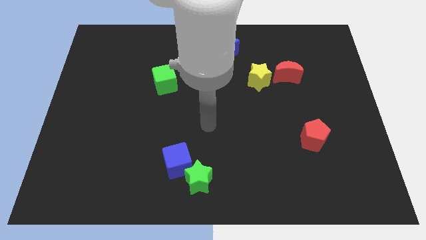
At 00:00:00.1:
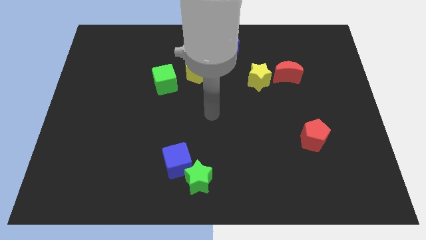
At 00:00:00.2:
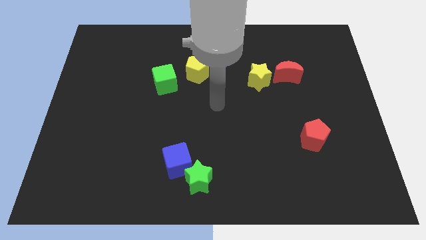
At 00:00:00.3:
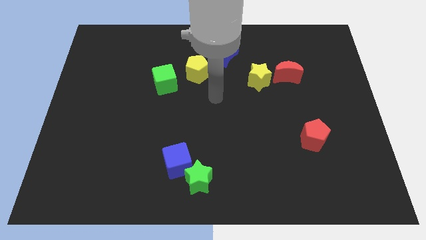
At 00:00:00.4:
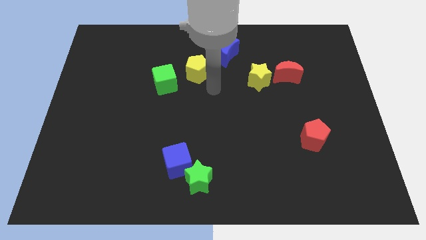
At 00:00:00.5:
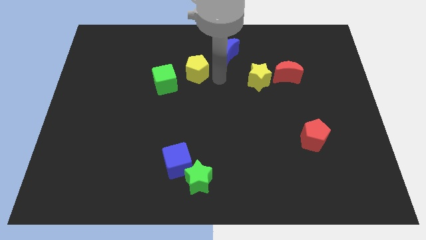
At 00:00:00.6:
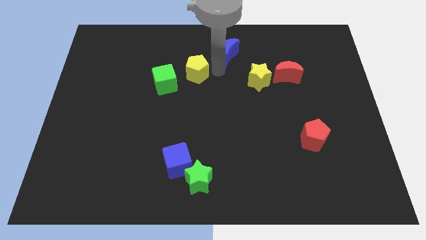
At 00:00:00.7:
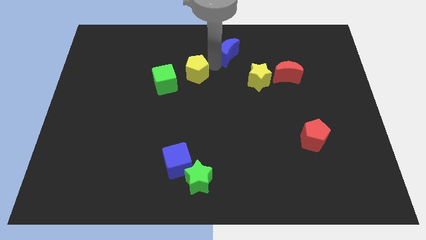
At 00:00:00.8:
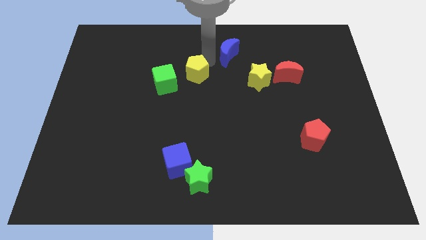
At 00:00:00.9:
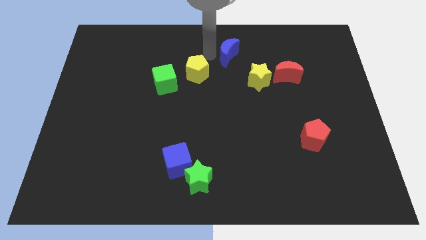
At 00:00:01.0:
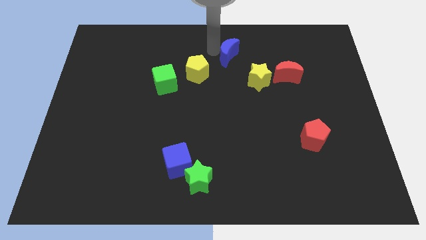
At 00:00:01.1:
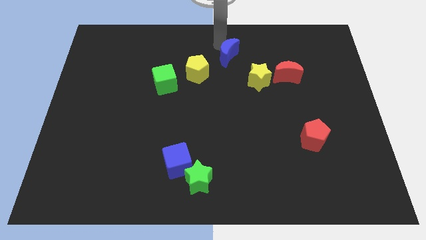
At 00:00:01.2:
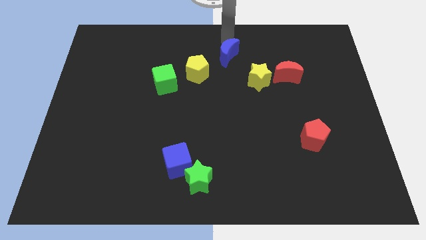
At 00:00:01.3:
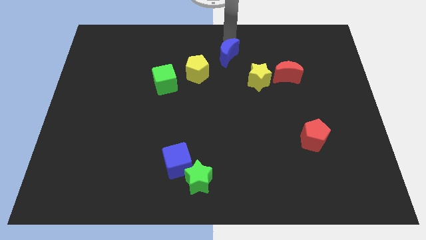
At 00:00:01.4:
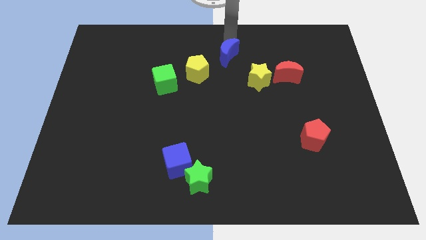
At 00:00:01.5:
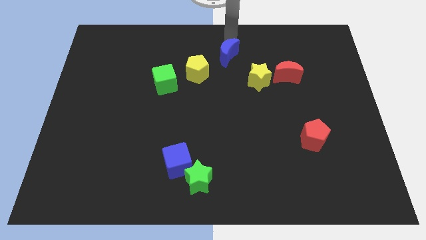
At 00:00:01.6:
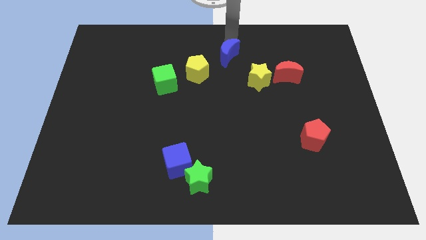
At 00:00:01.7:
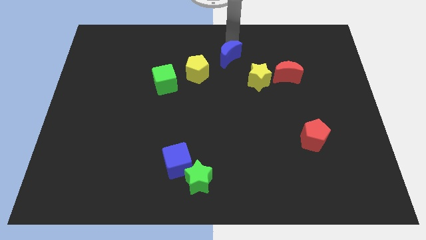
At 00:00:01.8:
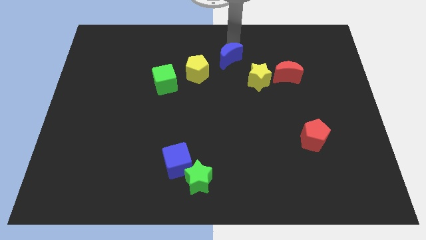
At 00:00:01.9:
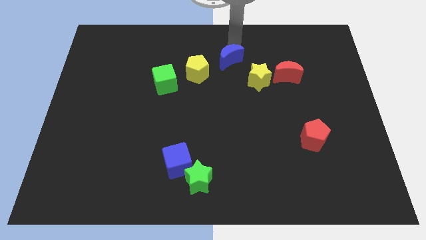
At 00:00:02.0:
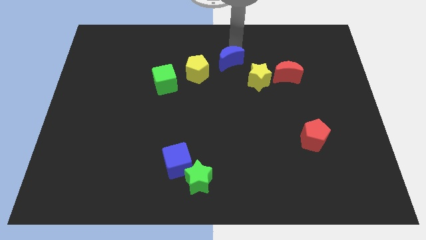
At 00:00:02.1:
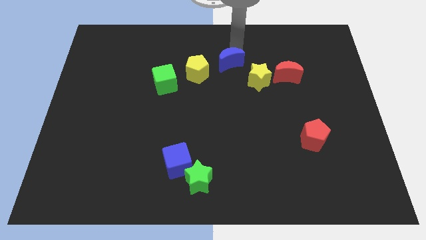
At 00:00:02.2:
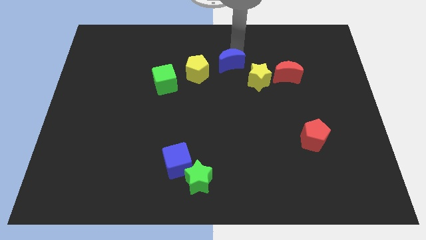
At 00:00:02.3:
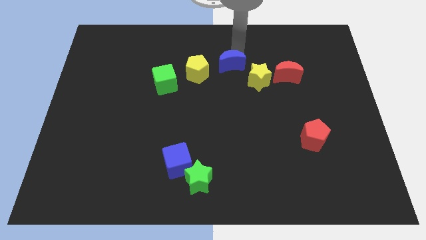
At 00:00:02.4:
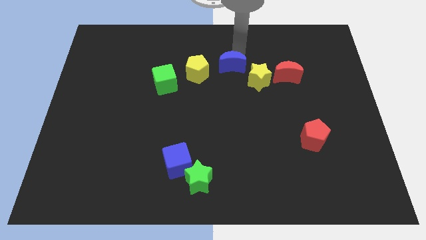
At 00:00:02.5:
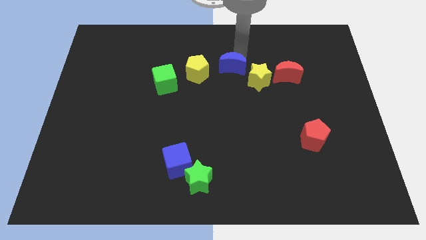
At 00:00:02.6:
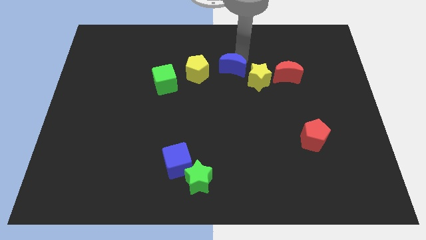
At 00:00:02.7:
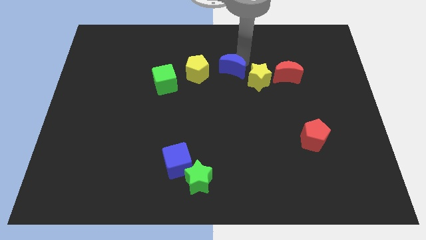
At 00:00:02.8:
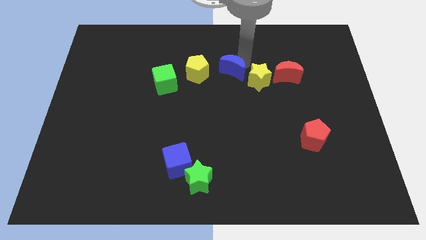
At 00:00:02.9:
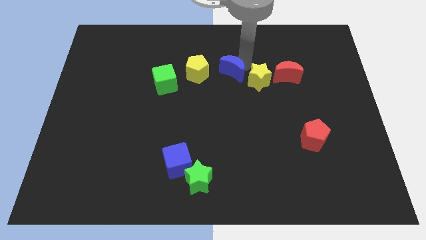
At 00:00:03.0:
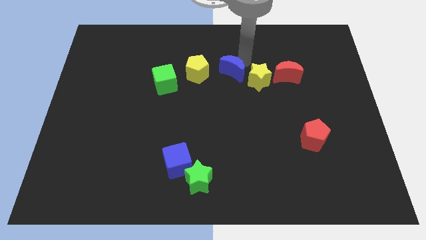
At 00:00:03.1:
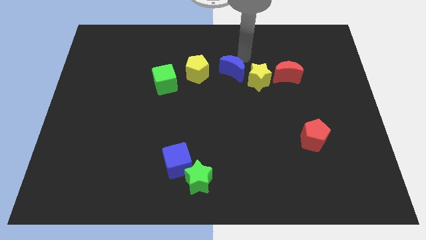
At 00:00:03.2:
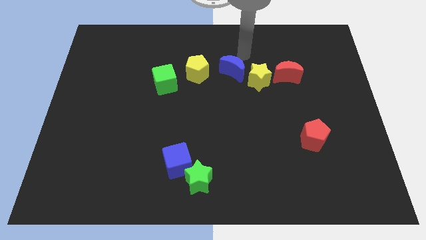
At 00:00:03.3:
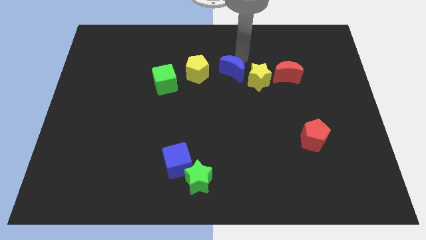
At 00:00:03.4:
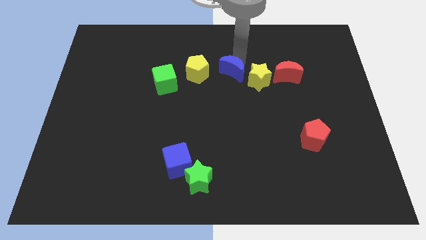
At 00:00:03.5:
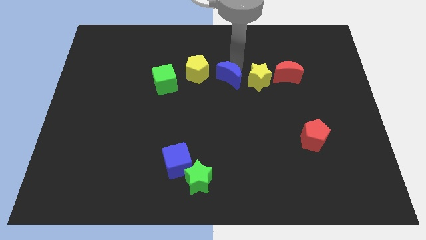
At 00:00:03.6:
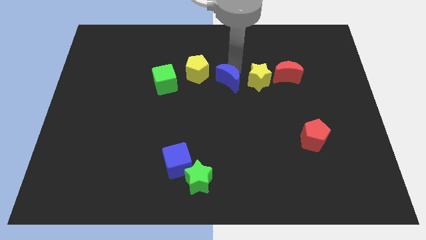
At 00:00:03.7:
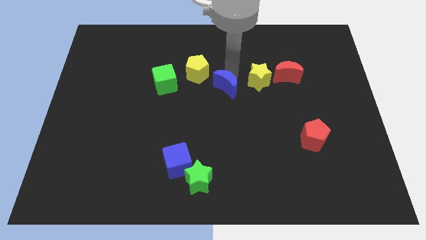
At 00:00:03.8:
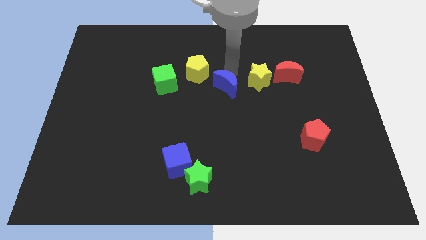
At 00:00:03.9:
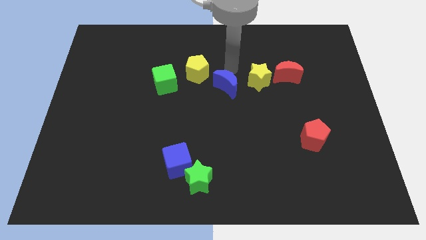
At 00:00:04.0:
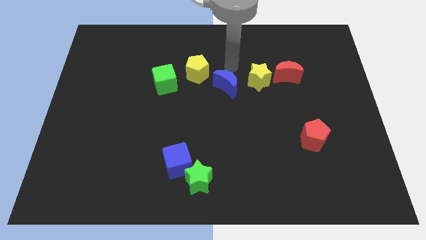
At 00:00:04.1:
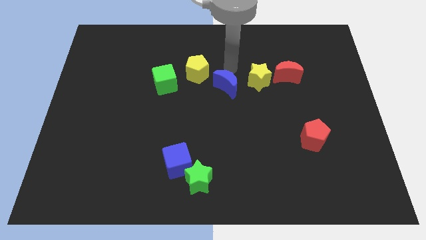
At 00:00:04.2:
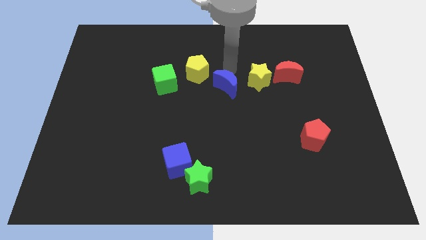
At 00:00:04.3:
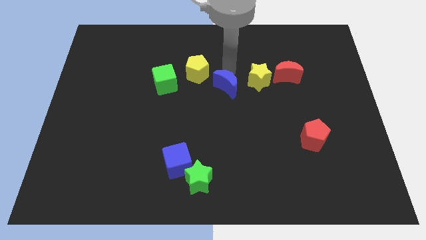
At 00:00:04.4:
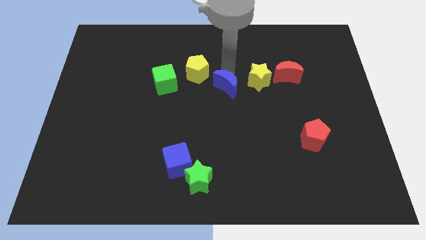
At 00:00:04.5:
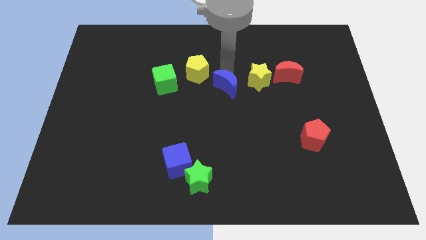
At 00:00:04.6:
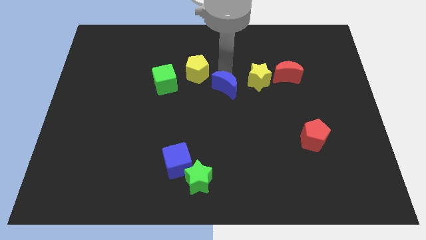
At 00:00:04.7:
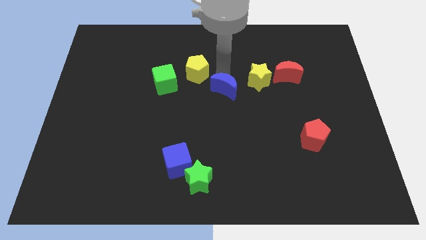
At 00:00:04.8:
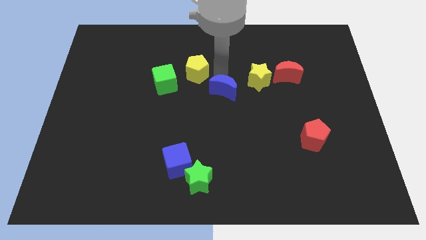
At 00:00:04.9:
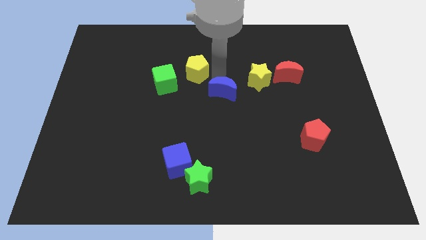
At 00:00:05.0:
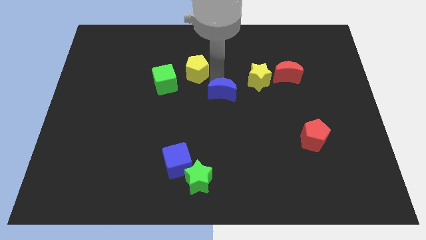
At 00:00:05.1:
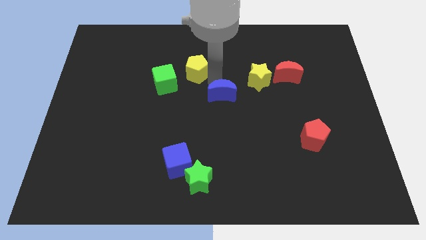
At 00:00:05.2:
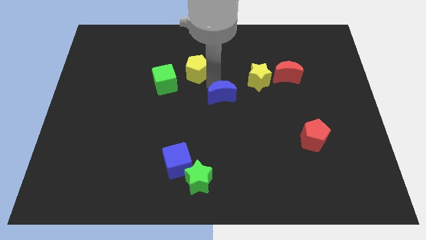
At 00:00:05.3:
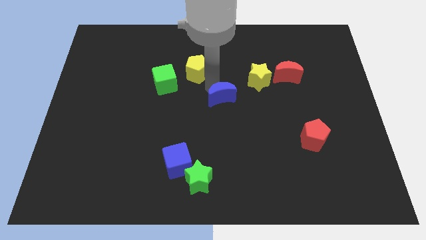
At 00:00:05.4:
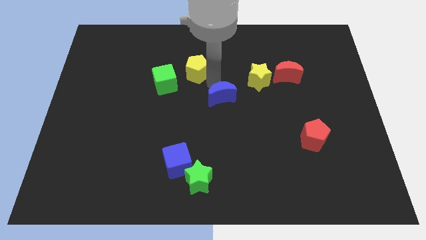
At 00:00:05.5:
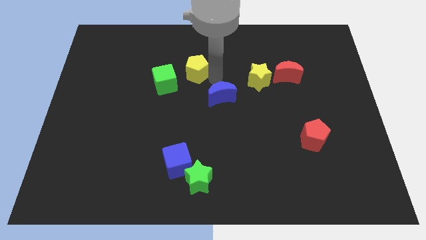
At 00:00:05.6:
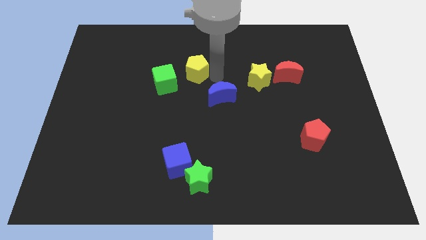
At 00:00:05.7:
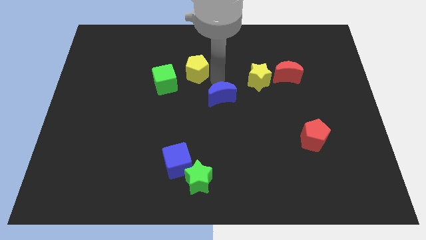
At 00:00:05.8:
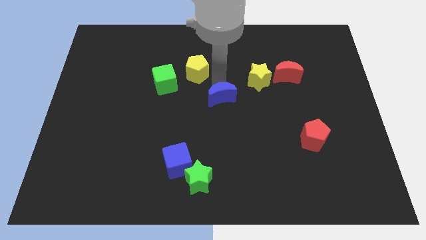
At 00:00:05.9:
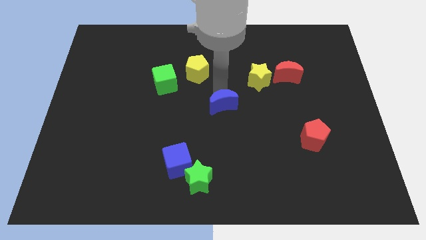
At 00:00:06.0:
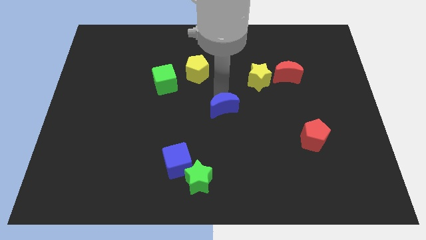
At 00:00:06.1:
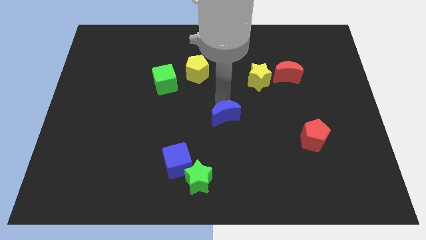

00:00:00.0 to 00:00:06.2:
push the blue moon downwards

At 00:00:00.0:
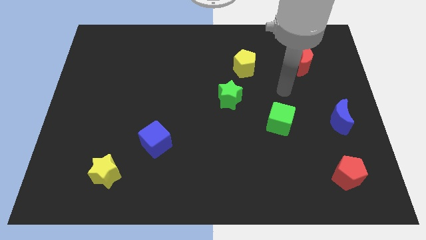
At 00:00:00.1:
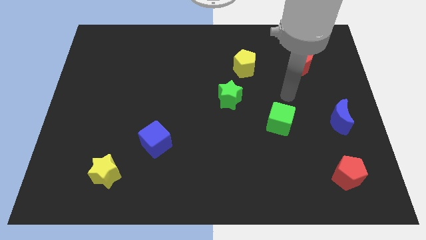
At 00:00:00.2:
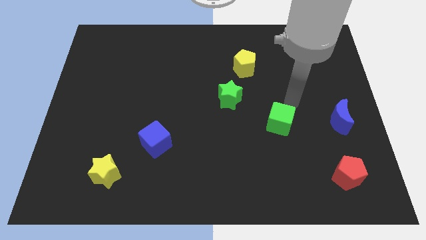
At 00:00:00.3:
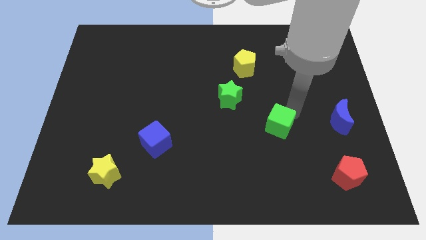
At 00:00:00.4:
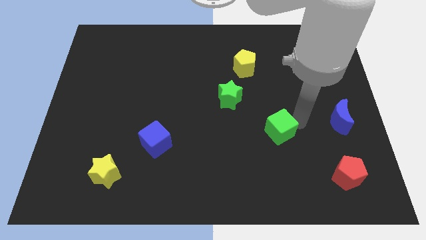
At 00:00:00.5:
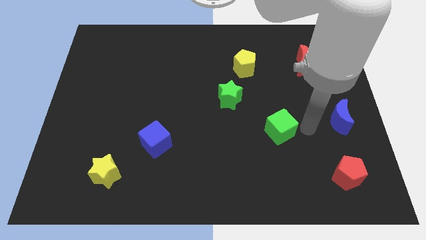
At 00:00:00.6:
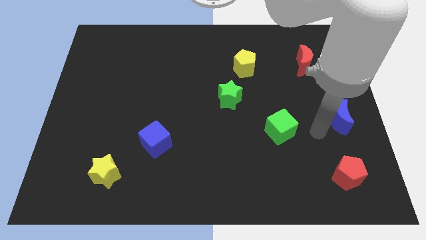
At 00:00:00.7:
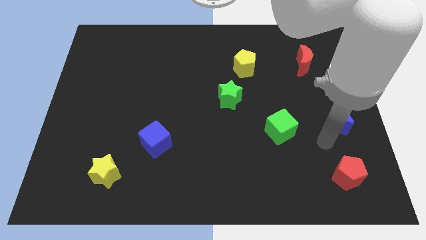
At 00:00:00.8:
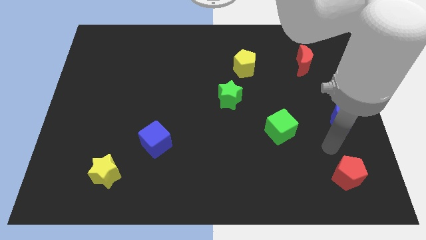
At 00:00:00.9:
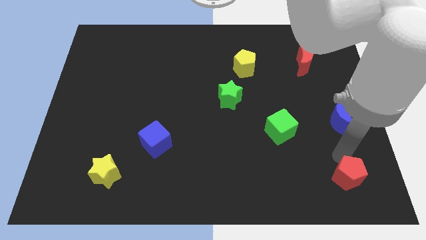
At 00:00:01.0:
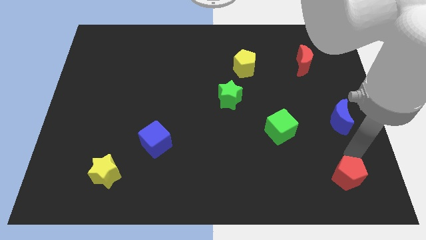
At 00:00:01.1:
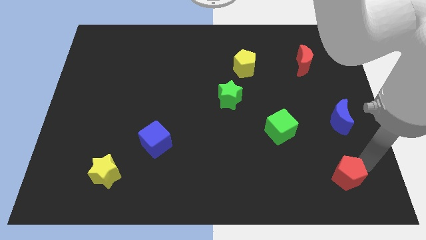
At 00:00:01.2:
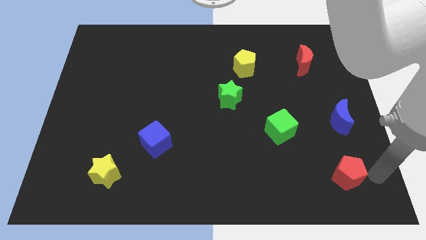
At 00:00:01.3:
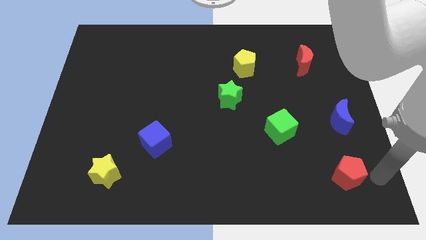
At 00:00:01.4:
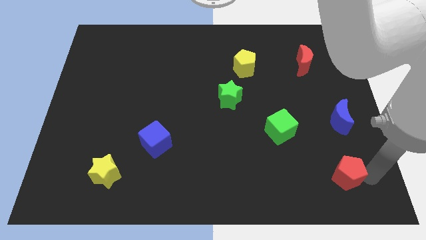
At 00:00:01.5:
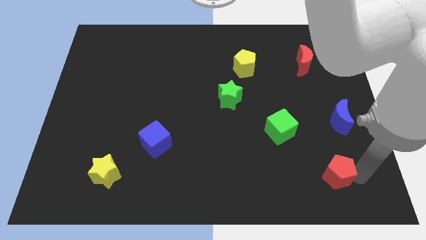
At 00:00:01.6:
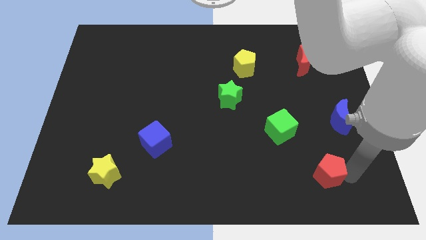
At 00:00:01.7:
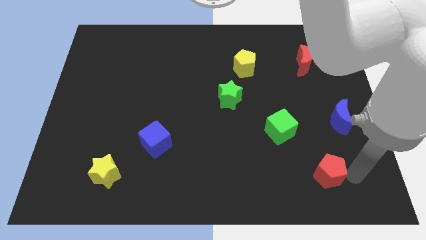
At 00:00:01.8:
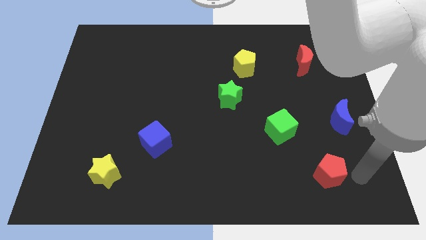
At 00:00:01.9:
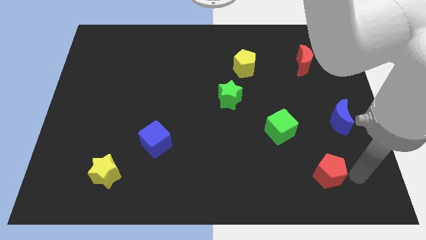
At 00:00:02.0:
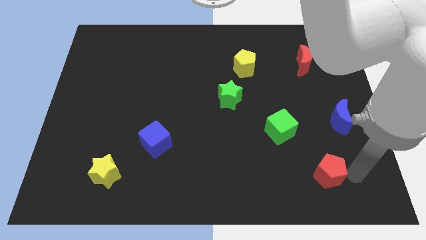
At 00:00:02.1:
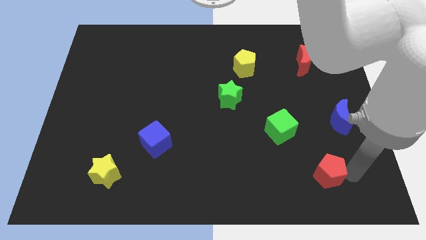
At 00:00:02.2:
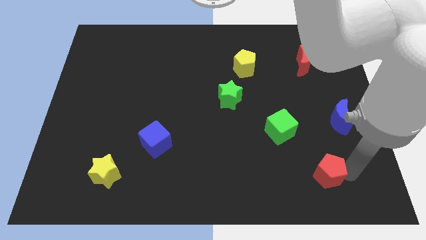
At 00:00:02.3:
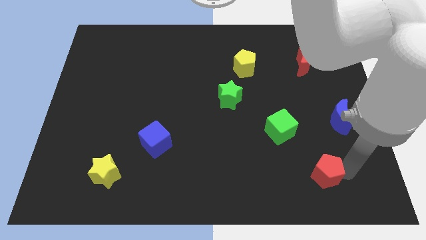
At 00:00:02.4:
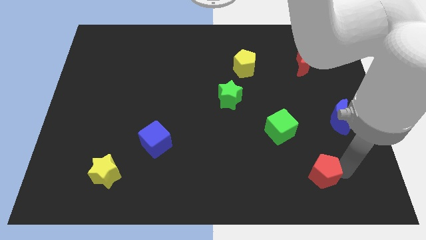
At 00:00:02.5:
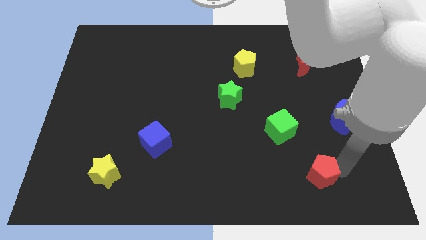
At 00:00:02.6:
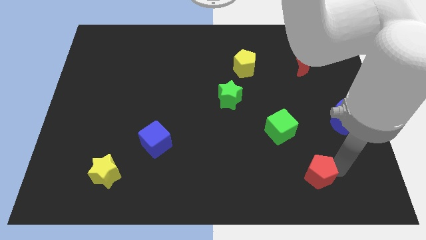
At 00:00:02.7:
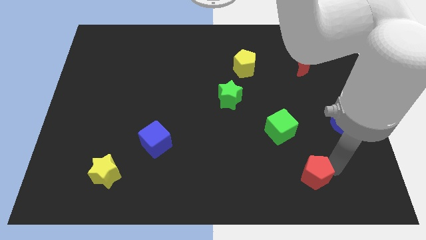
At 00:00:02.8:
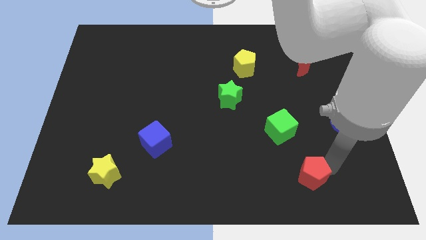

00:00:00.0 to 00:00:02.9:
push the red pentagon to the left a little bit
